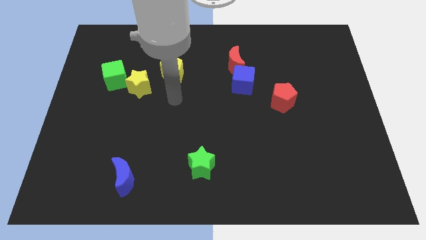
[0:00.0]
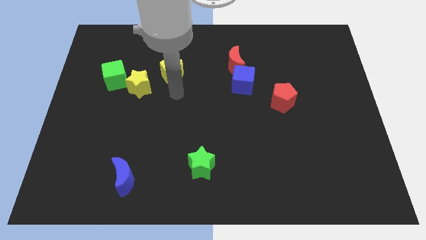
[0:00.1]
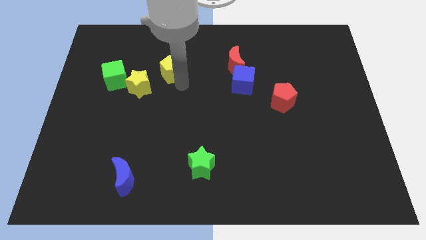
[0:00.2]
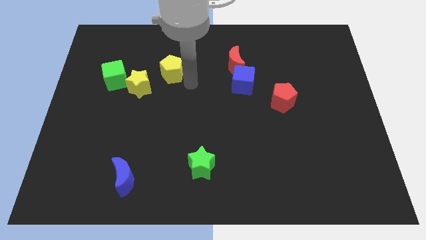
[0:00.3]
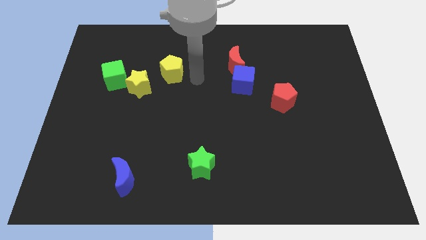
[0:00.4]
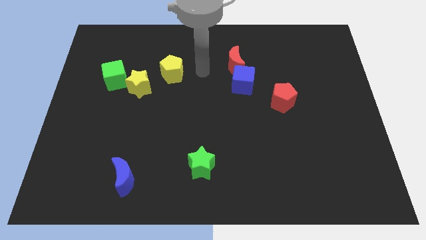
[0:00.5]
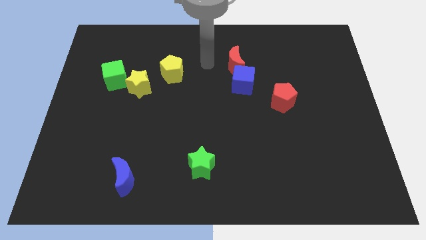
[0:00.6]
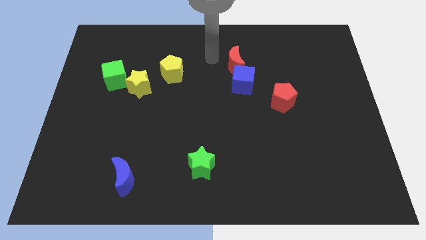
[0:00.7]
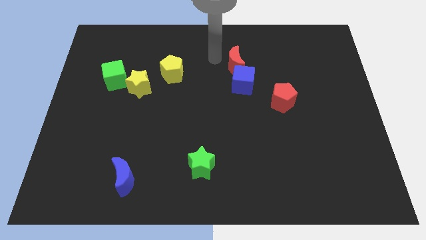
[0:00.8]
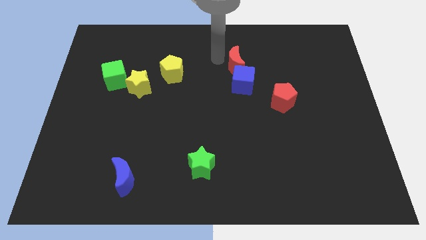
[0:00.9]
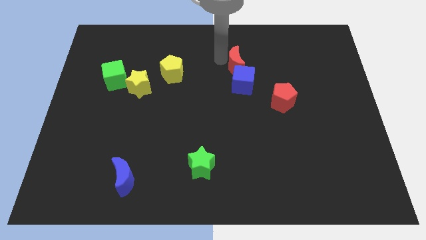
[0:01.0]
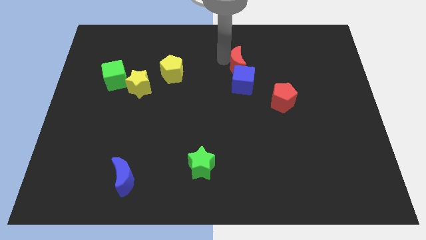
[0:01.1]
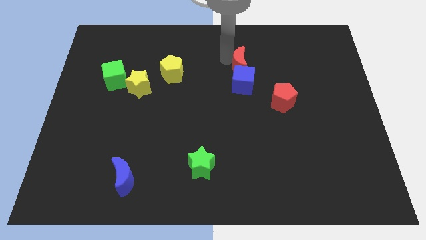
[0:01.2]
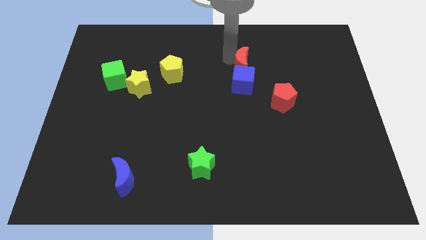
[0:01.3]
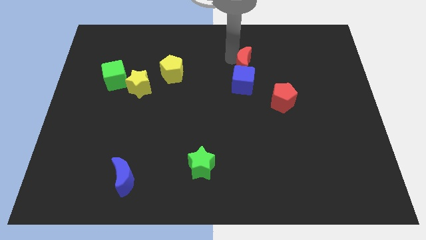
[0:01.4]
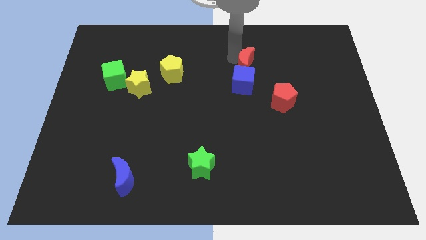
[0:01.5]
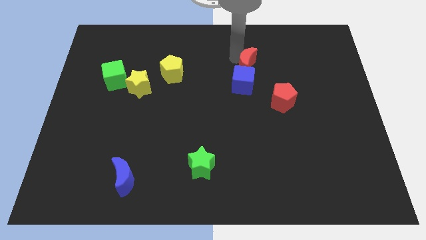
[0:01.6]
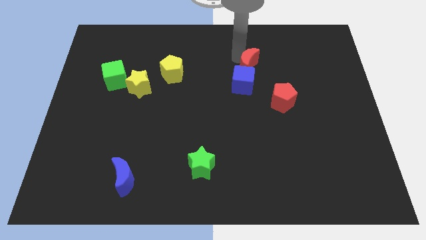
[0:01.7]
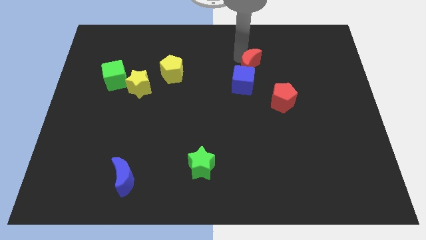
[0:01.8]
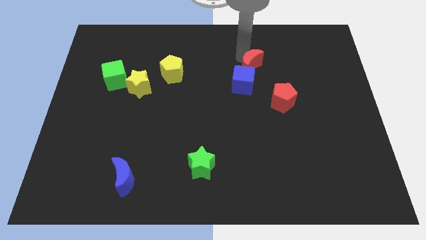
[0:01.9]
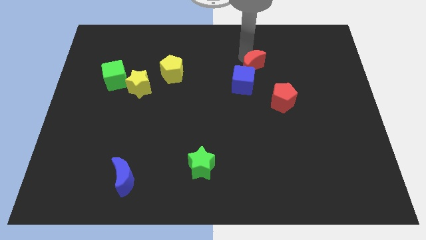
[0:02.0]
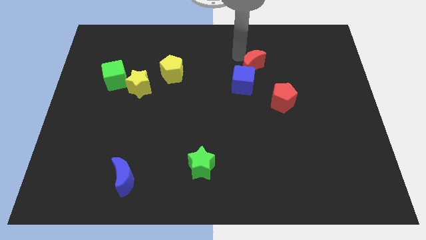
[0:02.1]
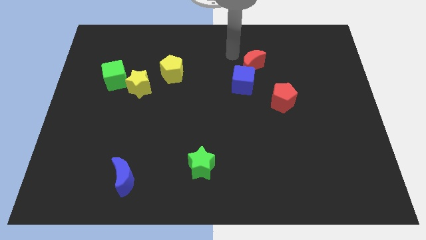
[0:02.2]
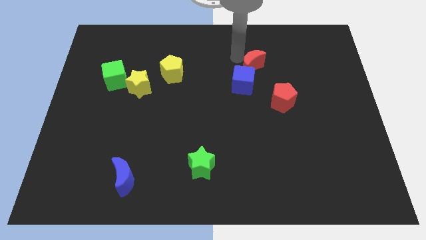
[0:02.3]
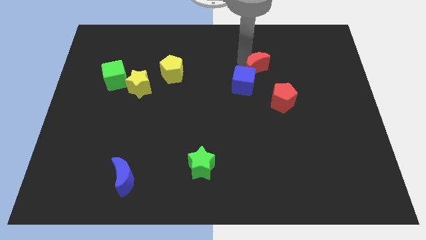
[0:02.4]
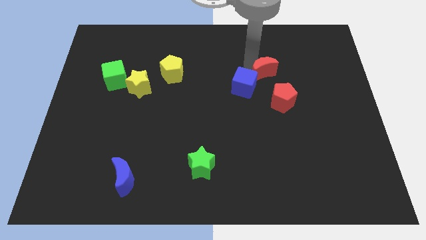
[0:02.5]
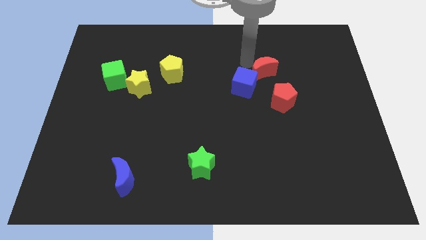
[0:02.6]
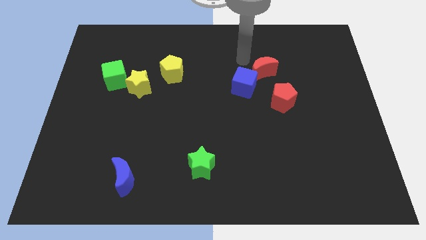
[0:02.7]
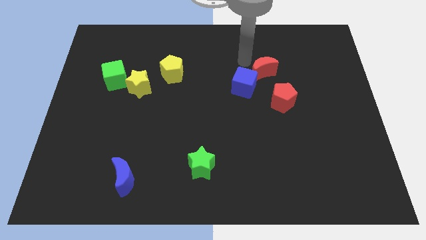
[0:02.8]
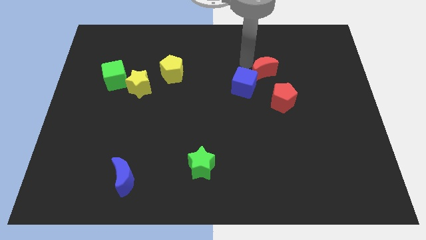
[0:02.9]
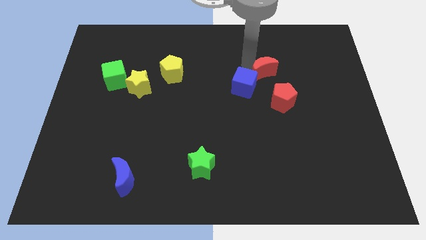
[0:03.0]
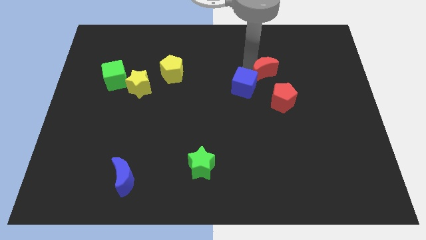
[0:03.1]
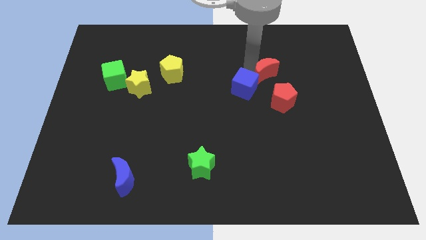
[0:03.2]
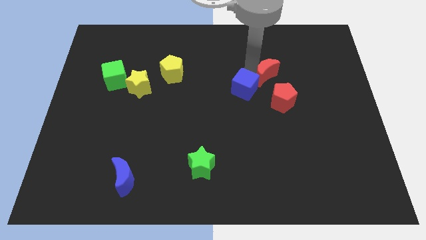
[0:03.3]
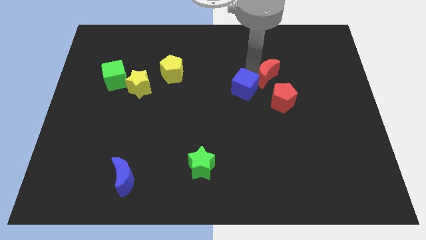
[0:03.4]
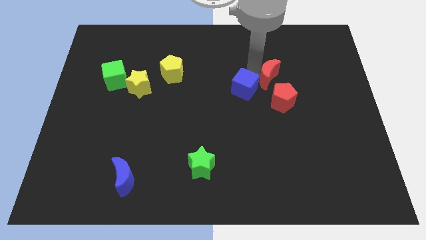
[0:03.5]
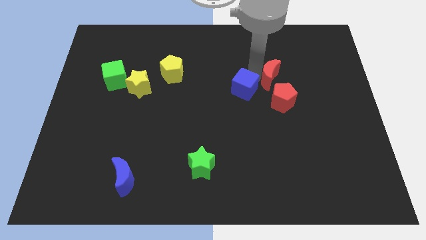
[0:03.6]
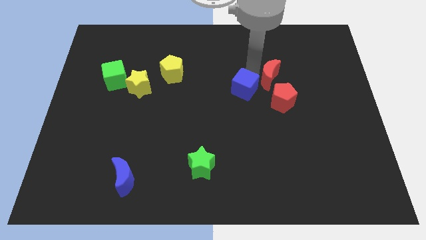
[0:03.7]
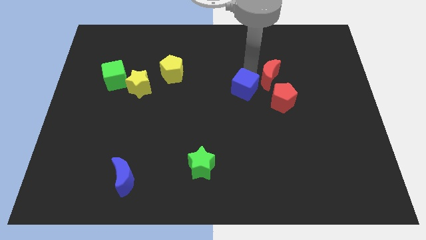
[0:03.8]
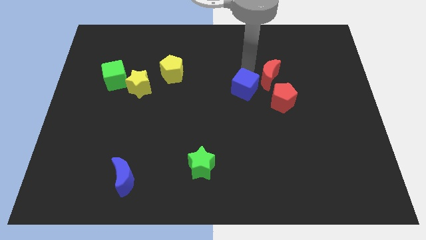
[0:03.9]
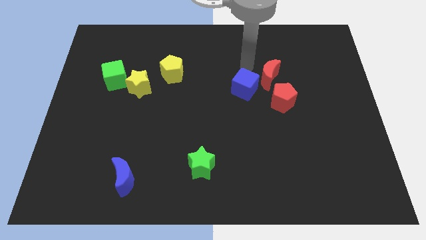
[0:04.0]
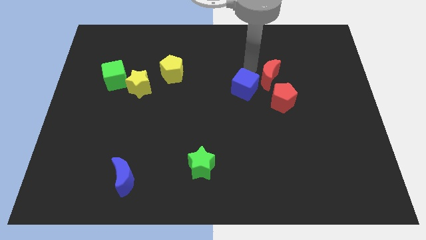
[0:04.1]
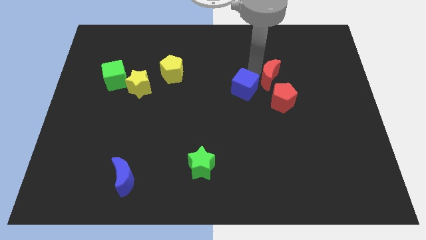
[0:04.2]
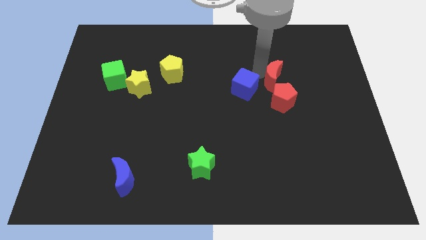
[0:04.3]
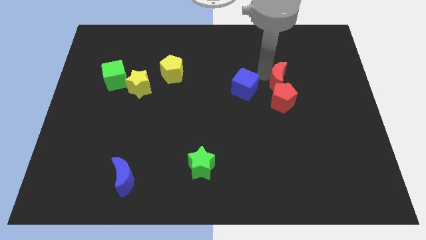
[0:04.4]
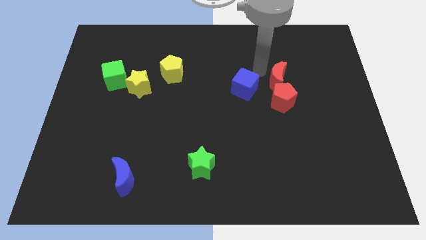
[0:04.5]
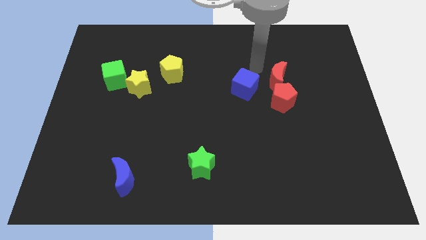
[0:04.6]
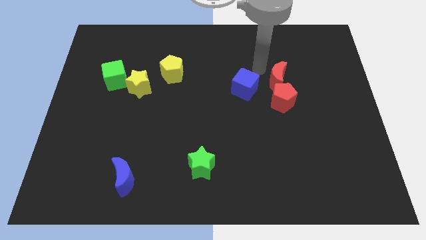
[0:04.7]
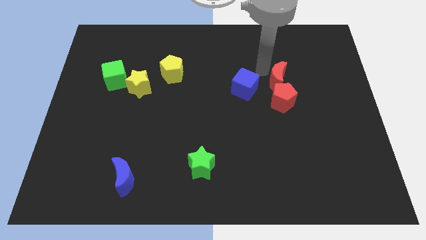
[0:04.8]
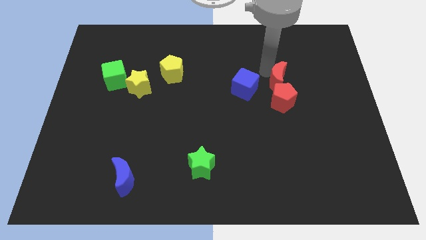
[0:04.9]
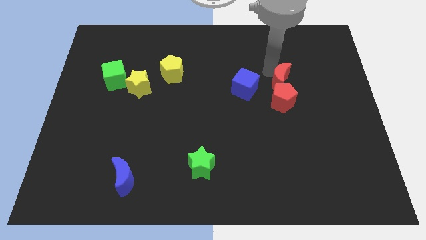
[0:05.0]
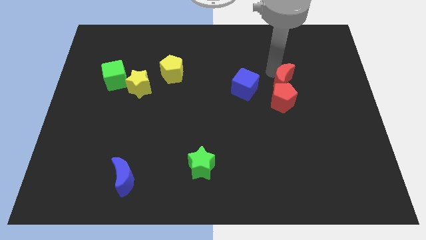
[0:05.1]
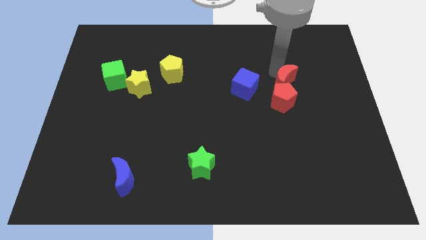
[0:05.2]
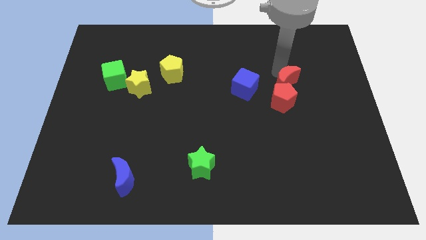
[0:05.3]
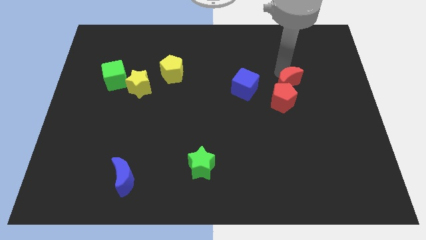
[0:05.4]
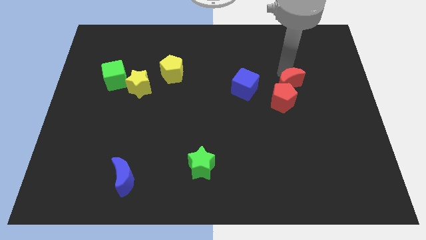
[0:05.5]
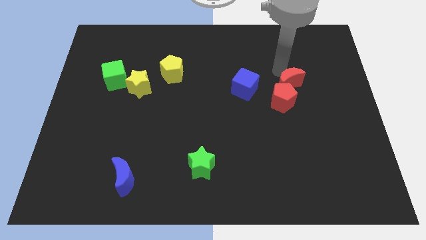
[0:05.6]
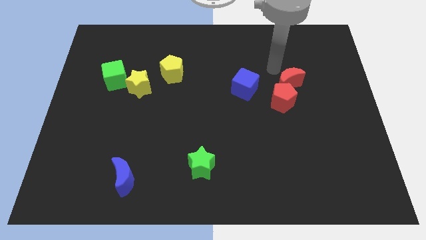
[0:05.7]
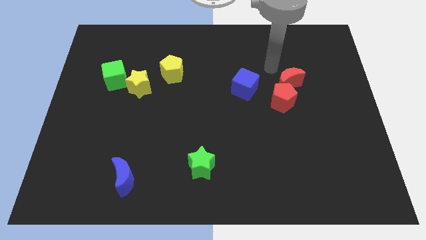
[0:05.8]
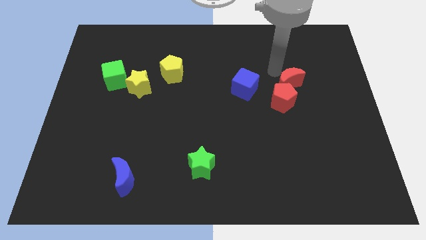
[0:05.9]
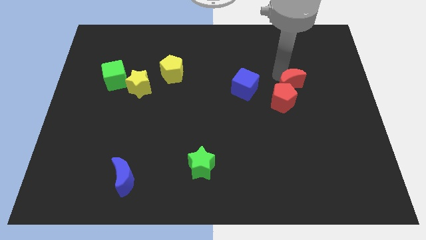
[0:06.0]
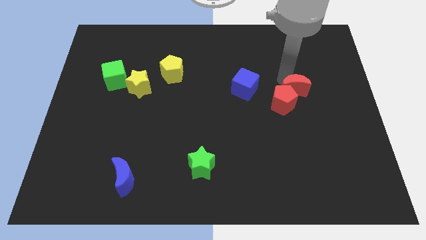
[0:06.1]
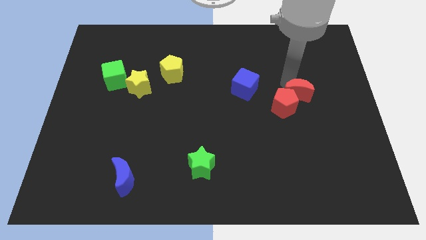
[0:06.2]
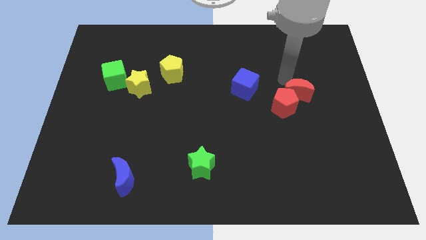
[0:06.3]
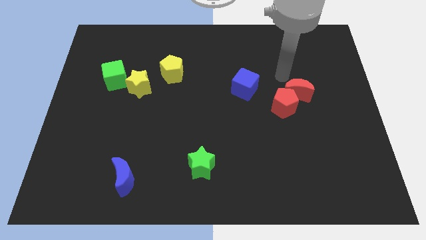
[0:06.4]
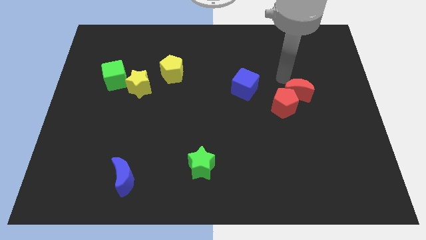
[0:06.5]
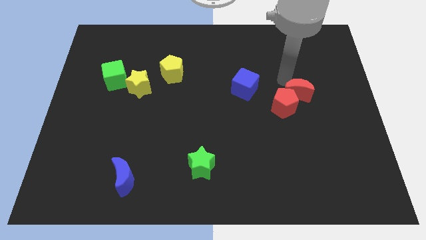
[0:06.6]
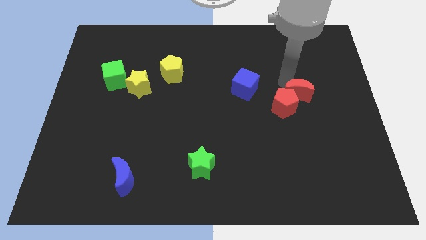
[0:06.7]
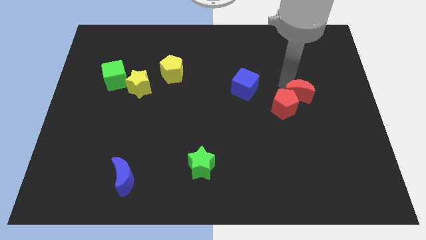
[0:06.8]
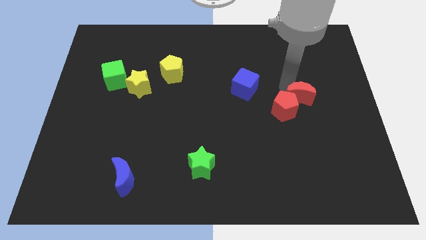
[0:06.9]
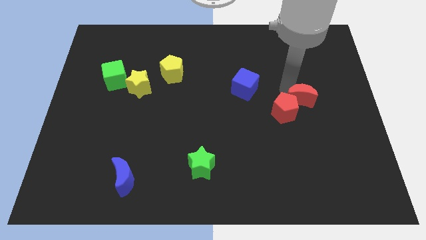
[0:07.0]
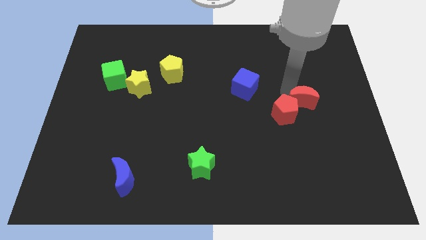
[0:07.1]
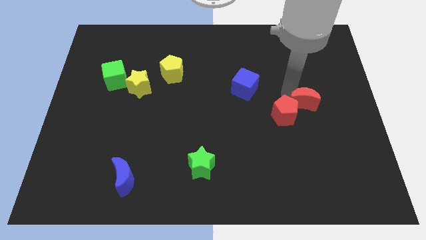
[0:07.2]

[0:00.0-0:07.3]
push the red moon down and to the right diagonally

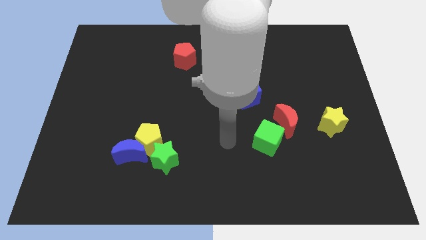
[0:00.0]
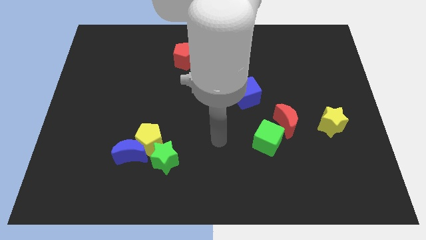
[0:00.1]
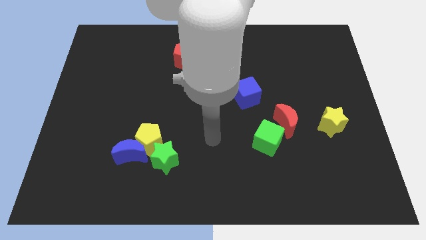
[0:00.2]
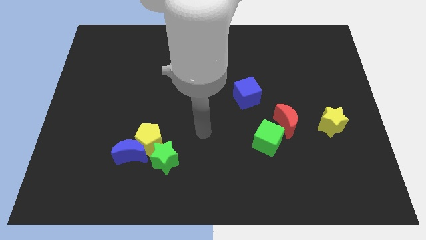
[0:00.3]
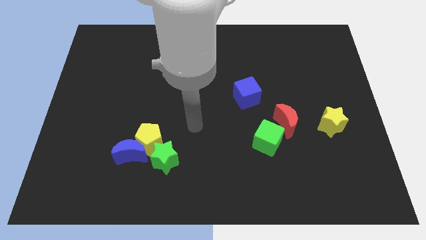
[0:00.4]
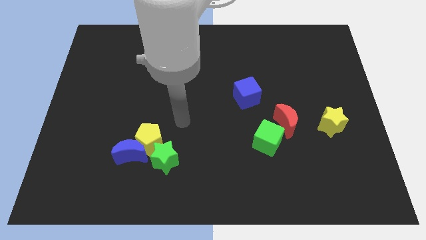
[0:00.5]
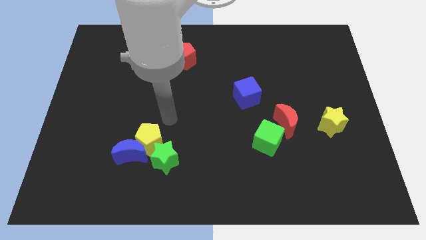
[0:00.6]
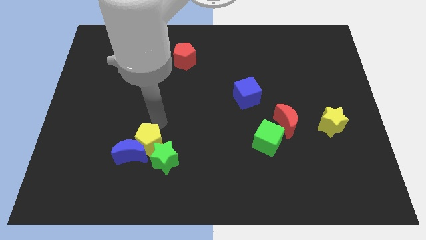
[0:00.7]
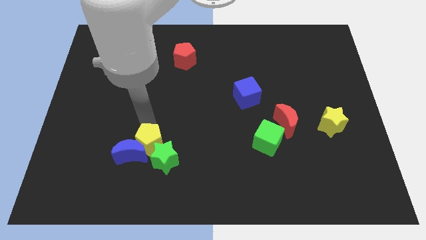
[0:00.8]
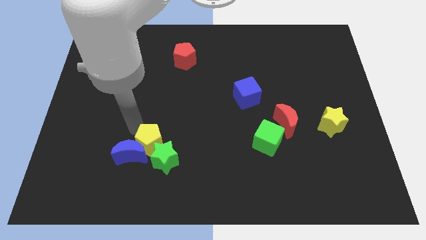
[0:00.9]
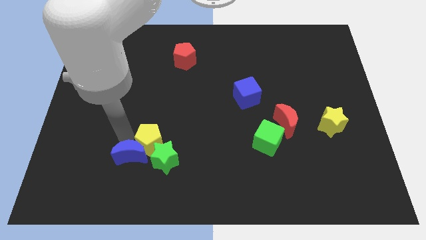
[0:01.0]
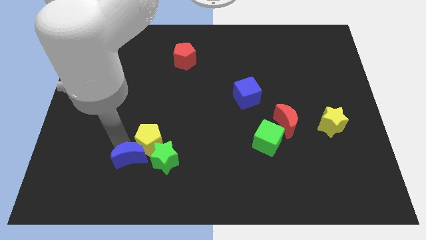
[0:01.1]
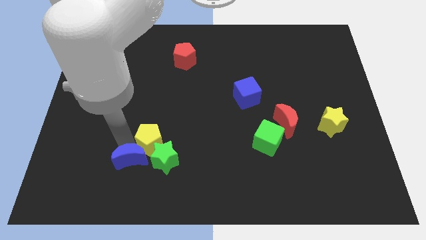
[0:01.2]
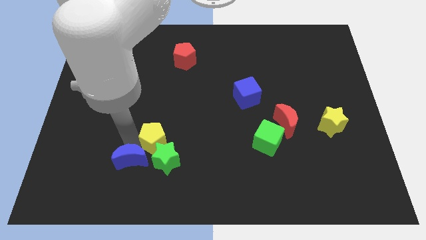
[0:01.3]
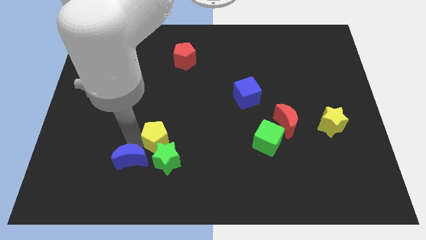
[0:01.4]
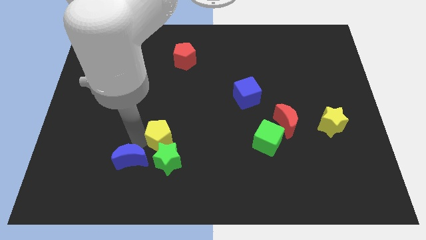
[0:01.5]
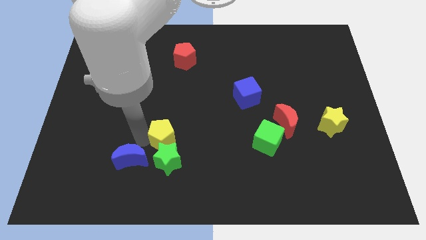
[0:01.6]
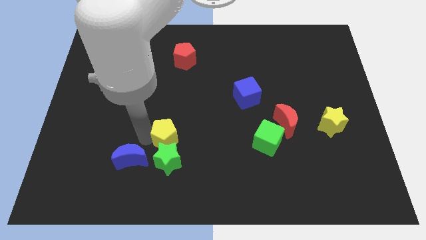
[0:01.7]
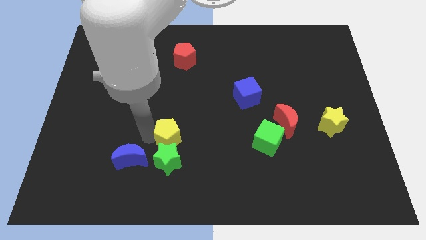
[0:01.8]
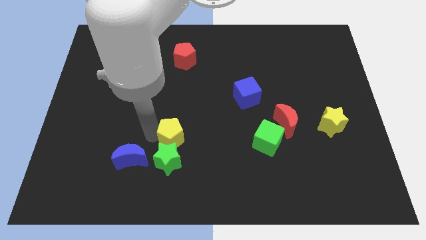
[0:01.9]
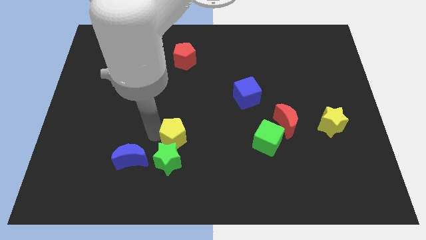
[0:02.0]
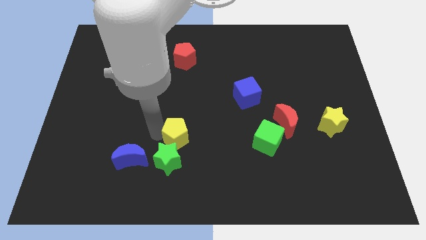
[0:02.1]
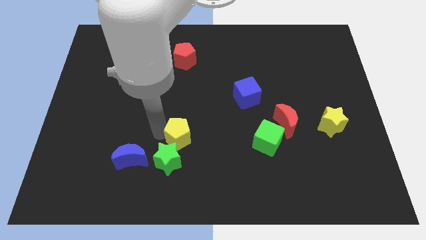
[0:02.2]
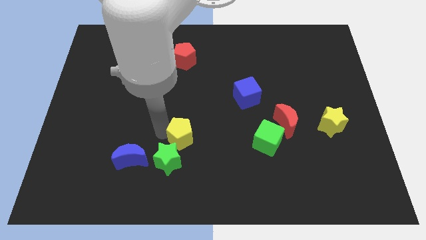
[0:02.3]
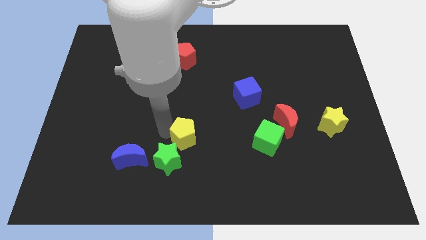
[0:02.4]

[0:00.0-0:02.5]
slightly move the yellow pentagon right
